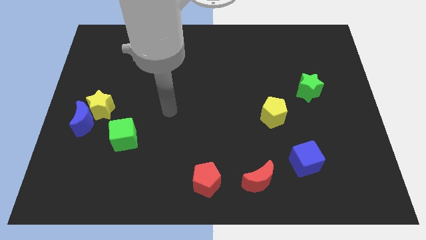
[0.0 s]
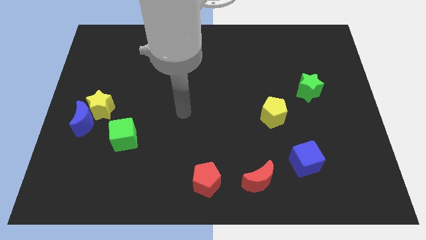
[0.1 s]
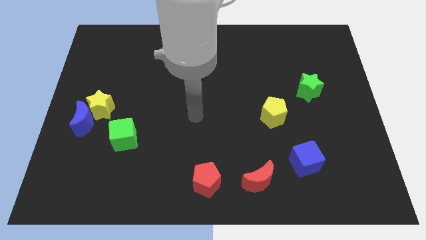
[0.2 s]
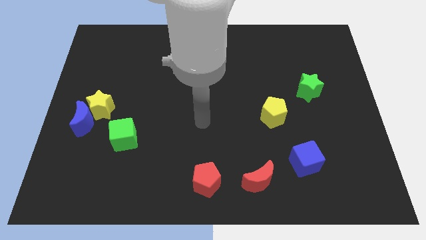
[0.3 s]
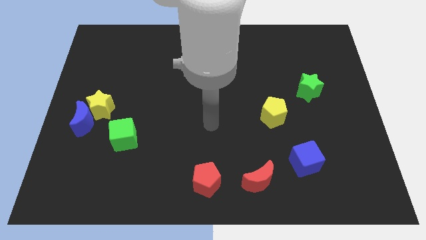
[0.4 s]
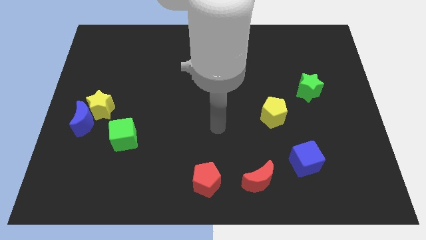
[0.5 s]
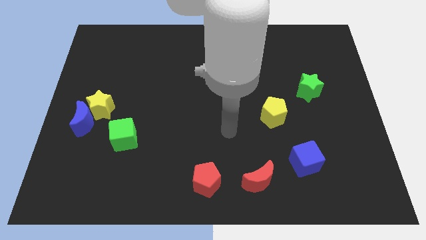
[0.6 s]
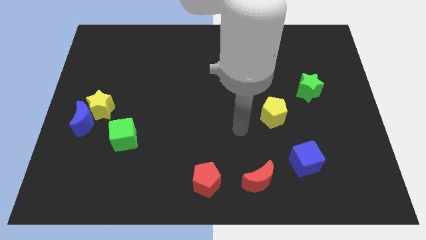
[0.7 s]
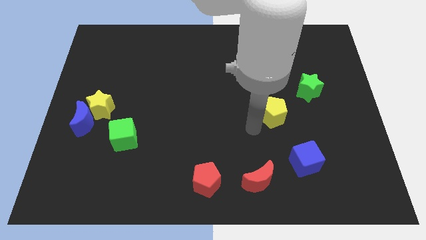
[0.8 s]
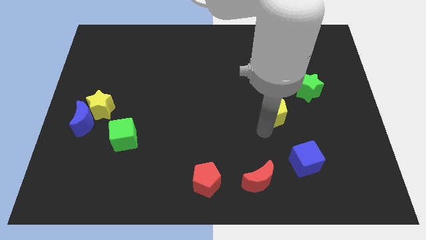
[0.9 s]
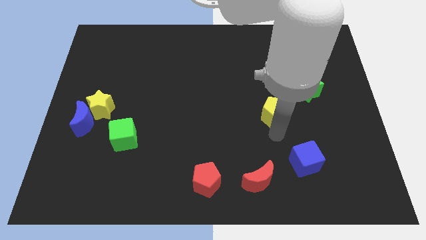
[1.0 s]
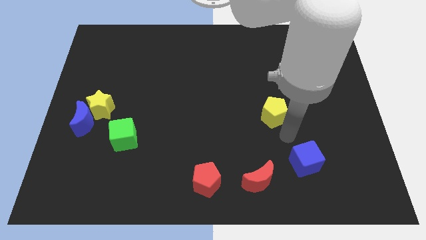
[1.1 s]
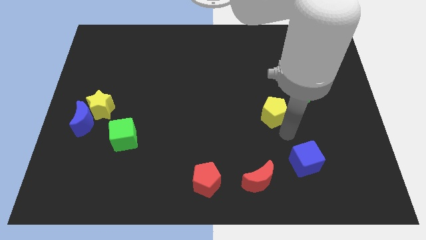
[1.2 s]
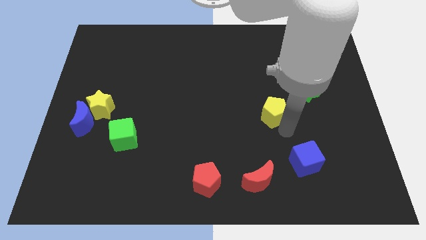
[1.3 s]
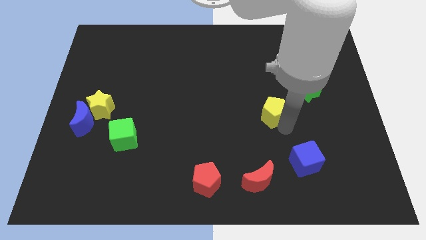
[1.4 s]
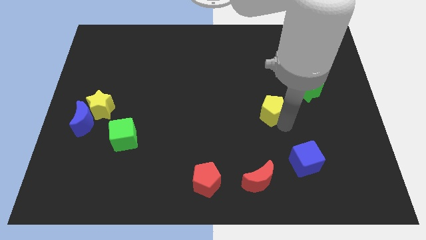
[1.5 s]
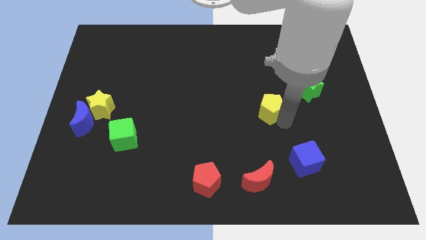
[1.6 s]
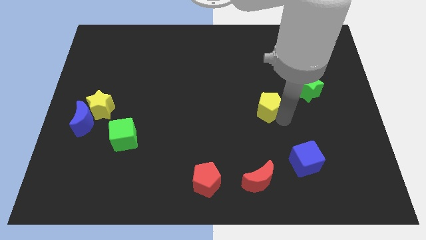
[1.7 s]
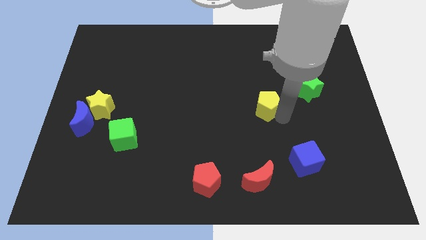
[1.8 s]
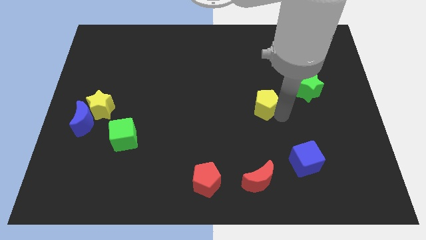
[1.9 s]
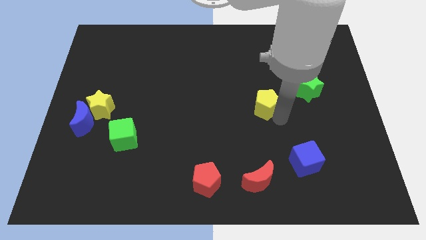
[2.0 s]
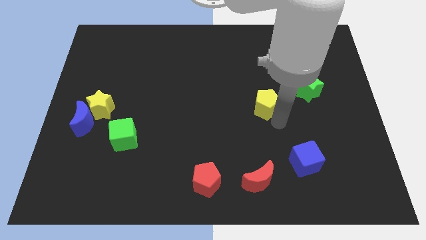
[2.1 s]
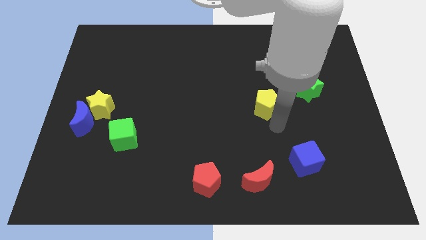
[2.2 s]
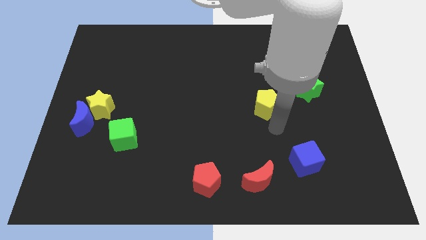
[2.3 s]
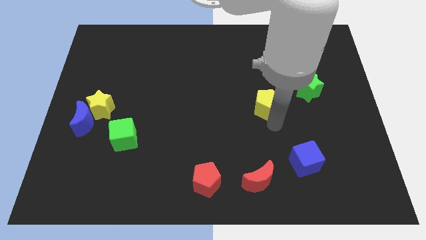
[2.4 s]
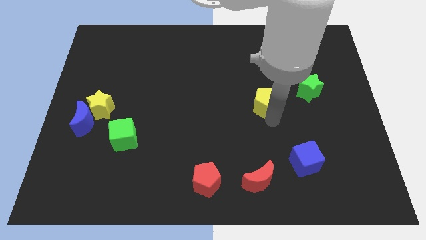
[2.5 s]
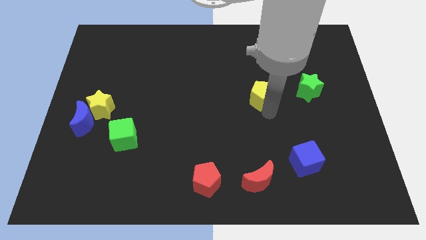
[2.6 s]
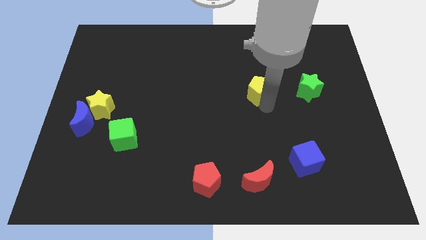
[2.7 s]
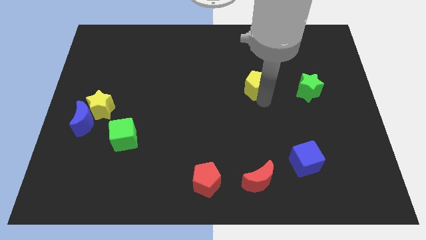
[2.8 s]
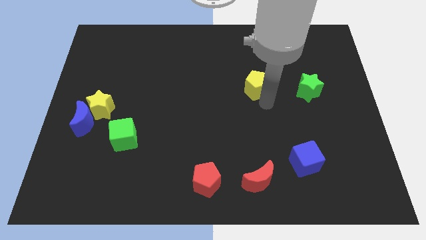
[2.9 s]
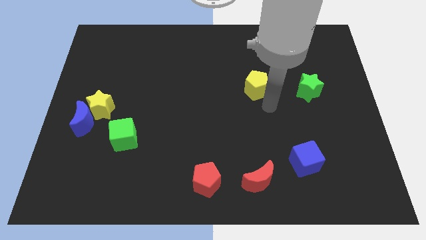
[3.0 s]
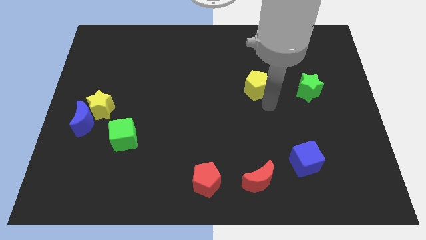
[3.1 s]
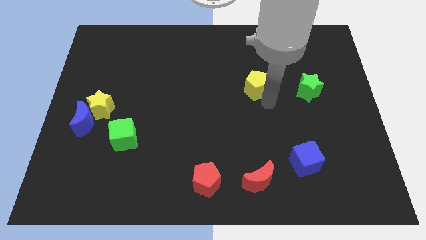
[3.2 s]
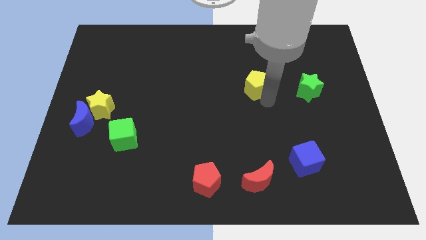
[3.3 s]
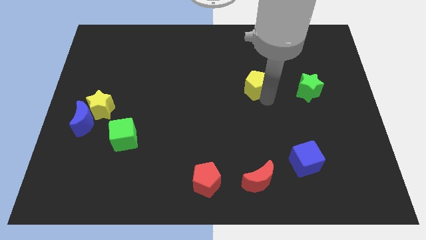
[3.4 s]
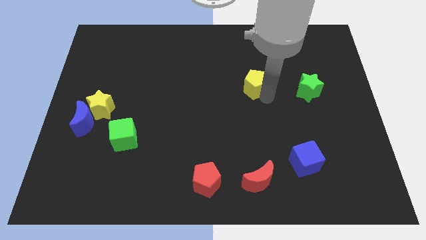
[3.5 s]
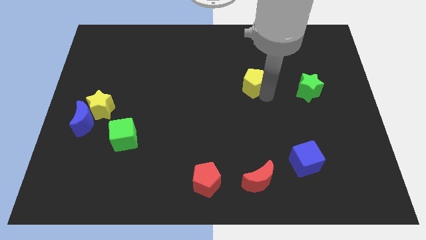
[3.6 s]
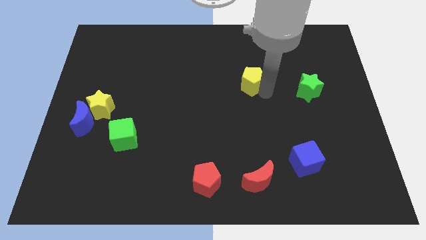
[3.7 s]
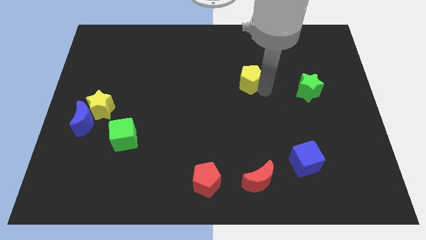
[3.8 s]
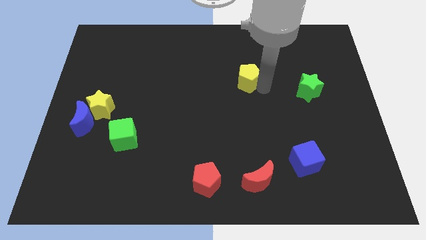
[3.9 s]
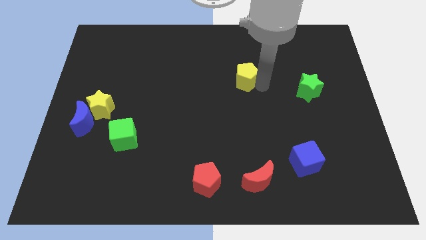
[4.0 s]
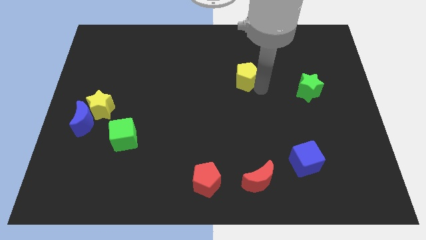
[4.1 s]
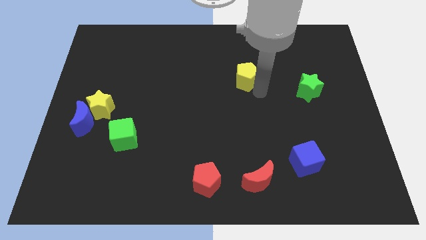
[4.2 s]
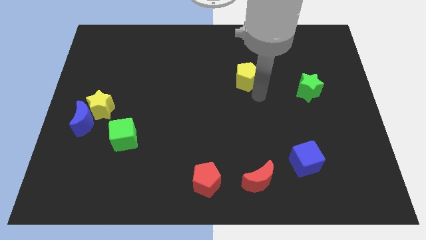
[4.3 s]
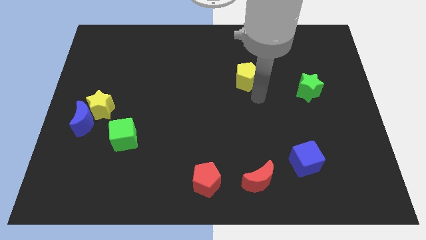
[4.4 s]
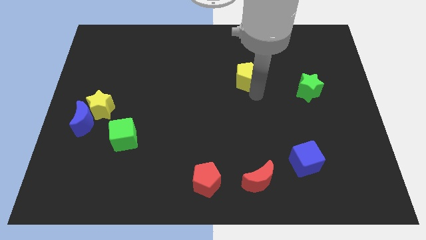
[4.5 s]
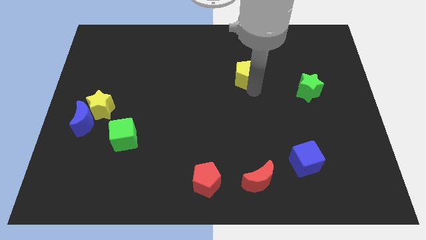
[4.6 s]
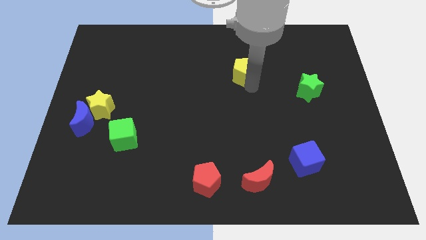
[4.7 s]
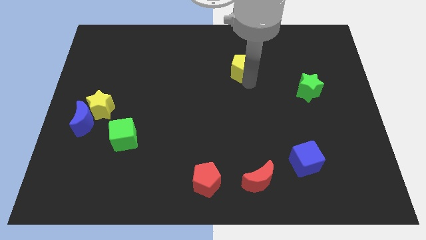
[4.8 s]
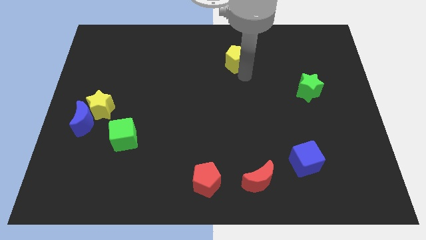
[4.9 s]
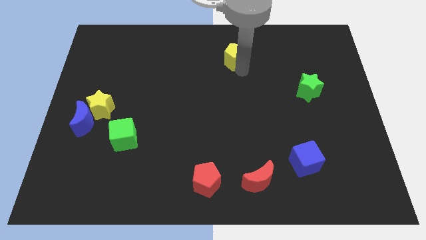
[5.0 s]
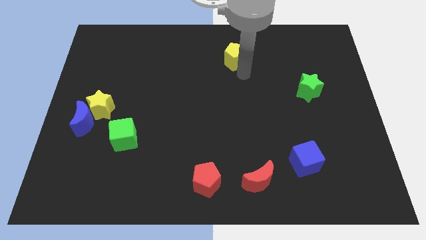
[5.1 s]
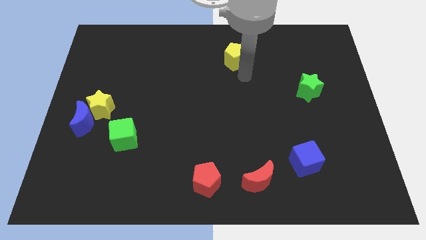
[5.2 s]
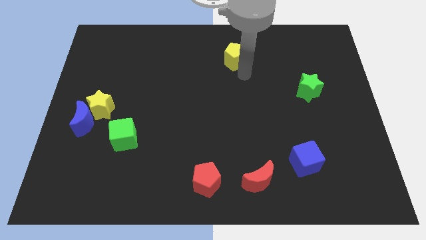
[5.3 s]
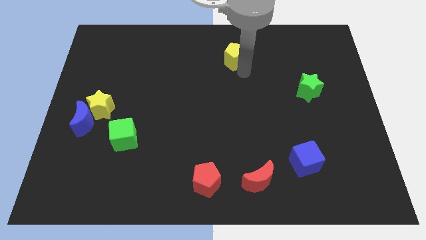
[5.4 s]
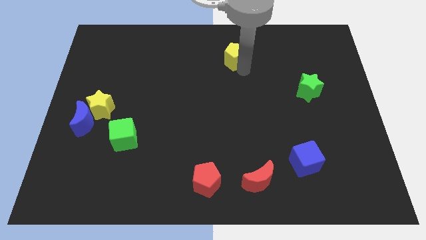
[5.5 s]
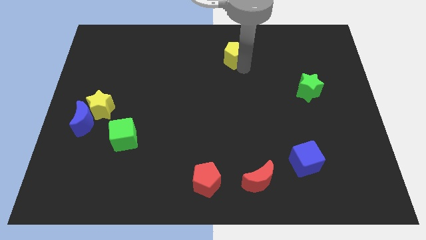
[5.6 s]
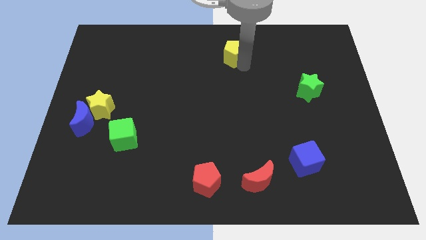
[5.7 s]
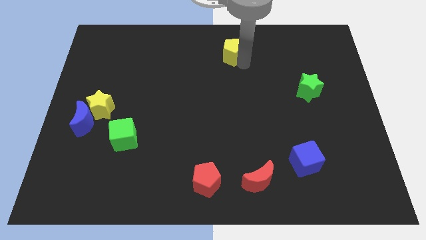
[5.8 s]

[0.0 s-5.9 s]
push the yellow pentagon to the top
